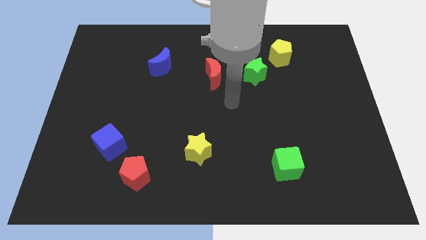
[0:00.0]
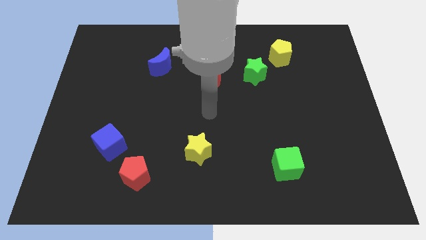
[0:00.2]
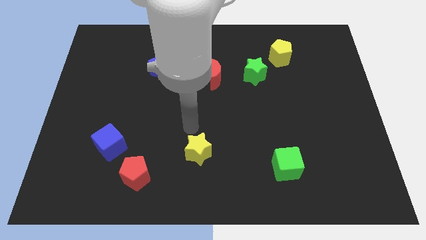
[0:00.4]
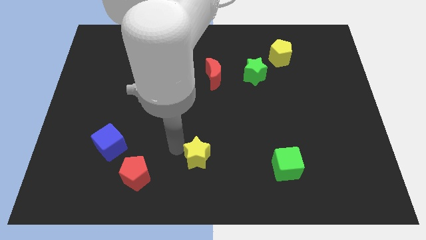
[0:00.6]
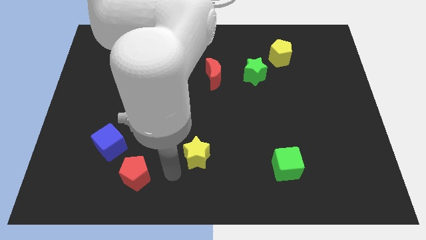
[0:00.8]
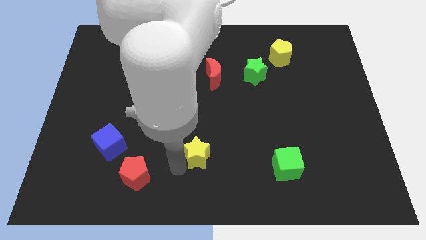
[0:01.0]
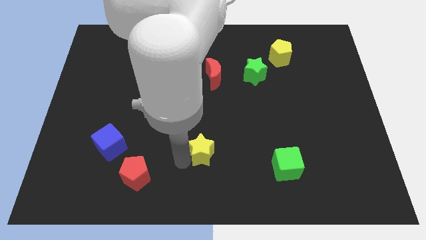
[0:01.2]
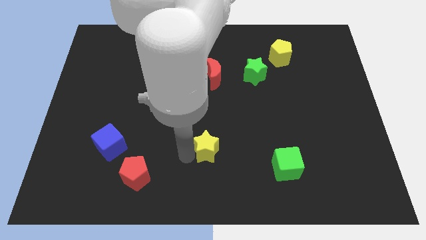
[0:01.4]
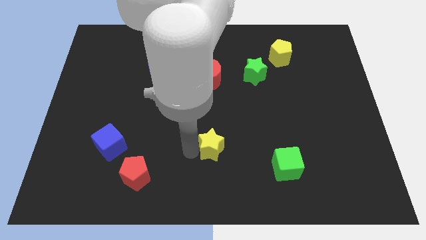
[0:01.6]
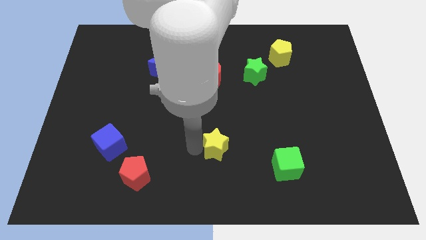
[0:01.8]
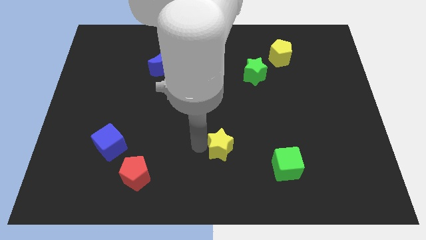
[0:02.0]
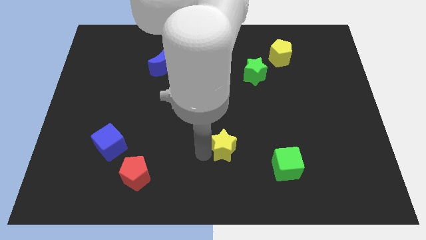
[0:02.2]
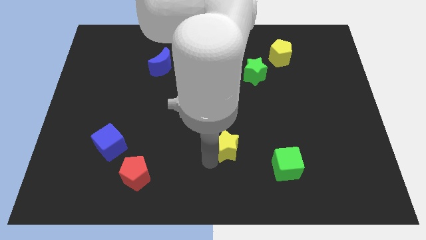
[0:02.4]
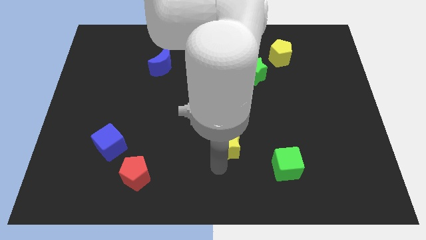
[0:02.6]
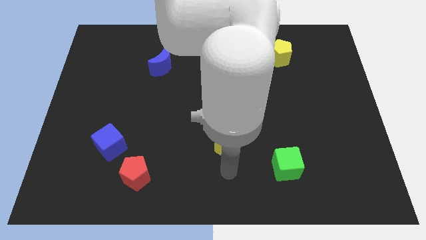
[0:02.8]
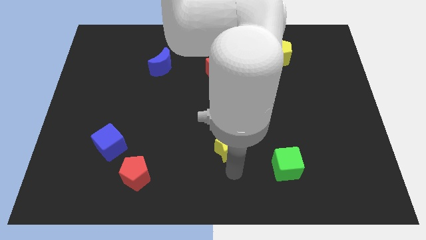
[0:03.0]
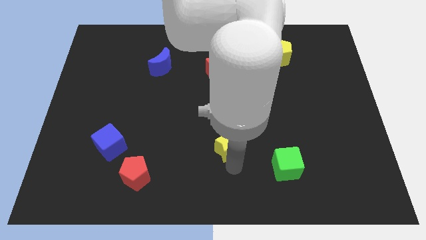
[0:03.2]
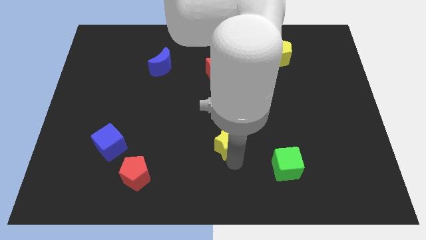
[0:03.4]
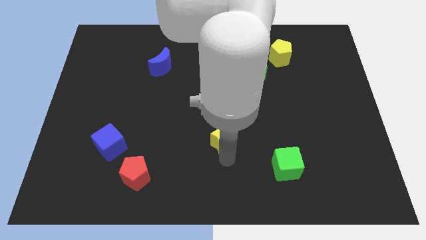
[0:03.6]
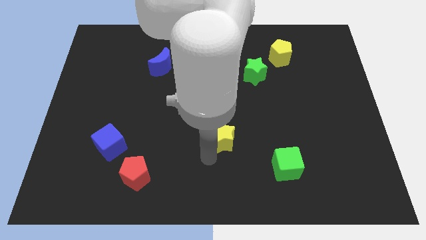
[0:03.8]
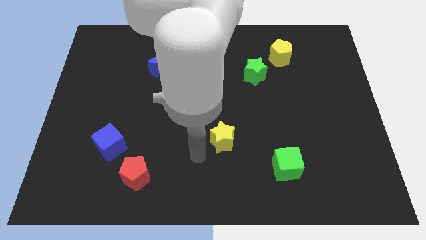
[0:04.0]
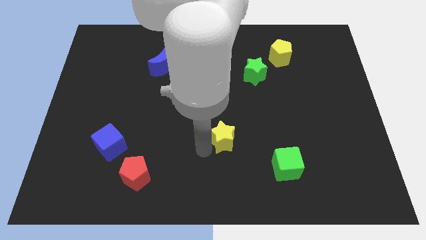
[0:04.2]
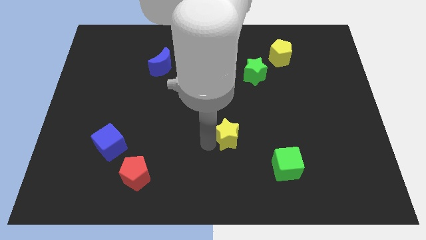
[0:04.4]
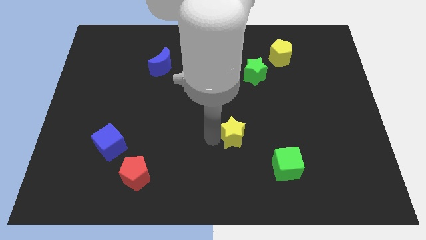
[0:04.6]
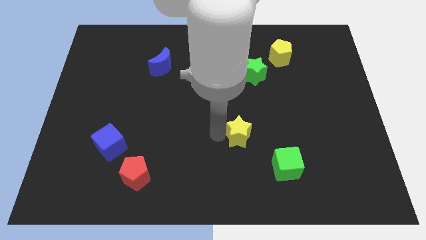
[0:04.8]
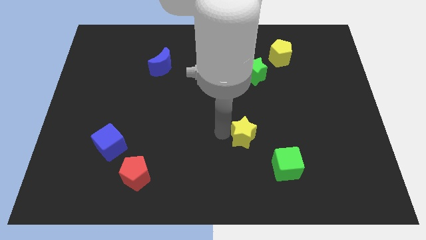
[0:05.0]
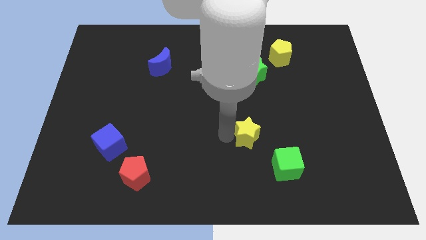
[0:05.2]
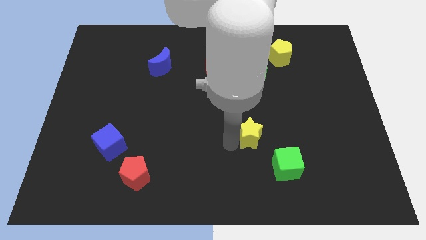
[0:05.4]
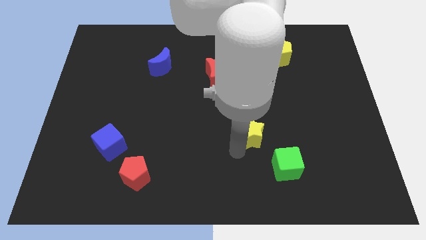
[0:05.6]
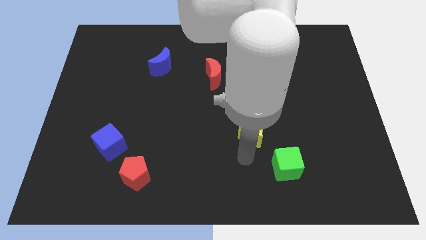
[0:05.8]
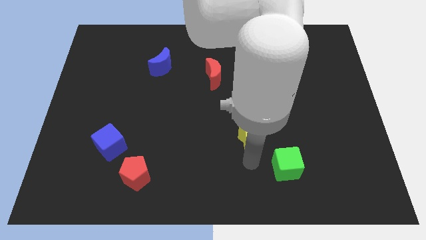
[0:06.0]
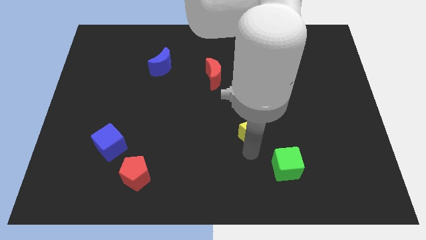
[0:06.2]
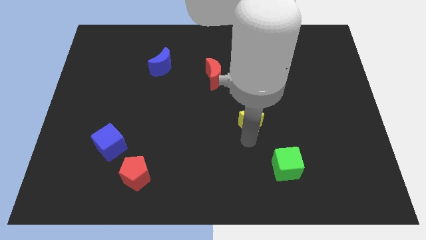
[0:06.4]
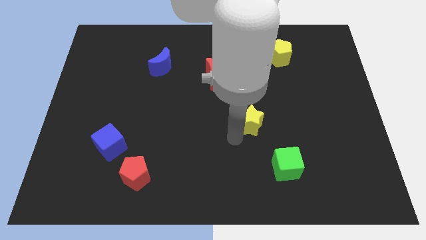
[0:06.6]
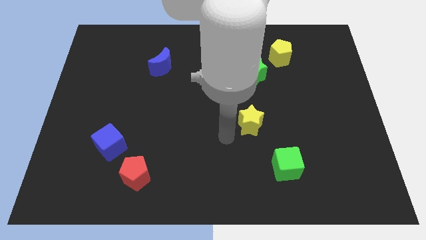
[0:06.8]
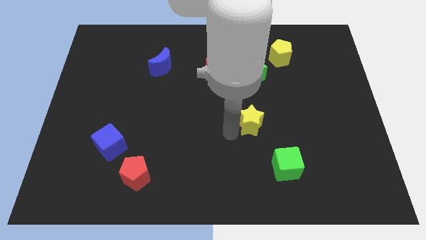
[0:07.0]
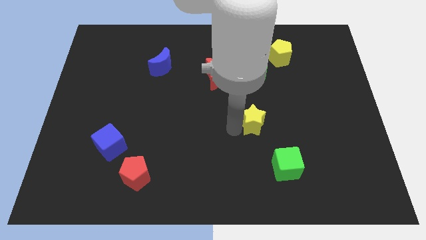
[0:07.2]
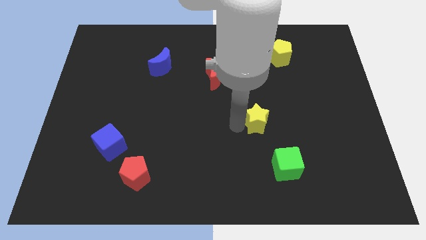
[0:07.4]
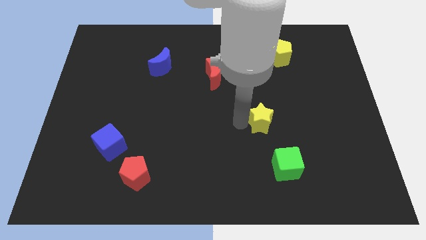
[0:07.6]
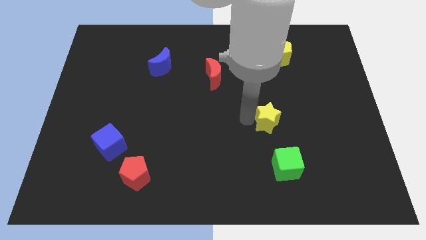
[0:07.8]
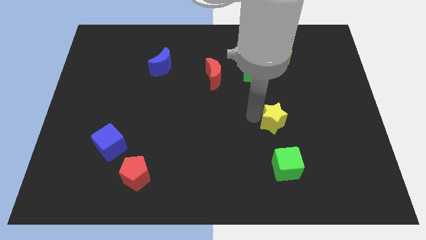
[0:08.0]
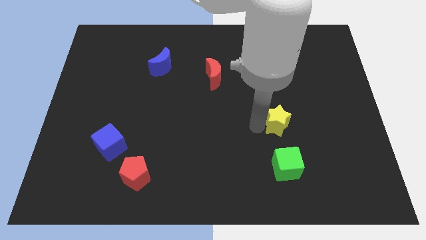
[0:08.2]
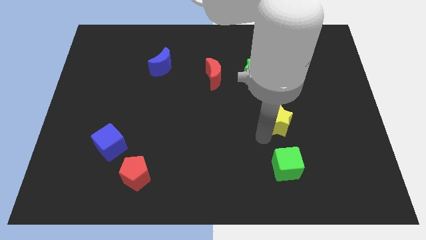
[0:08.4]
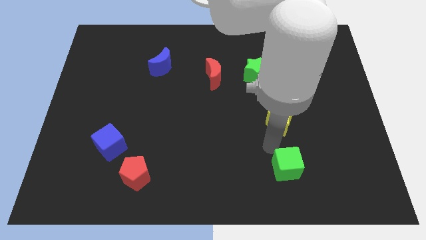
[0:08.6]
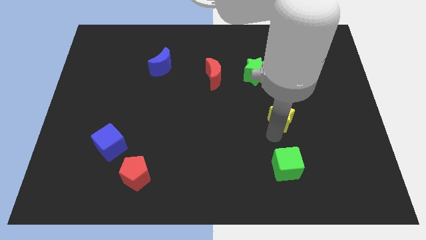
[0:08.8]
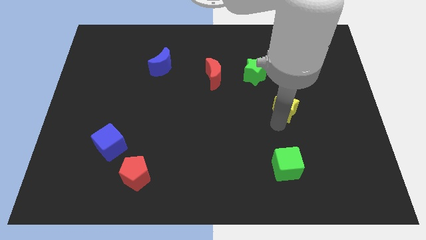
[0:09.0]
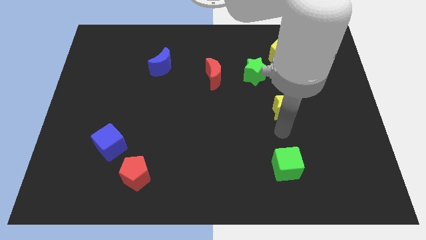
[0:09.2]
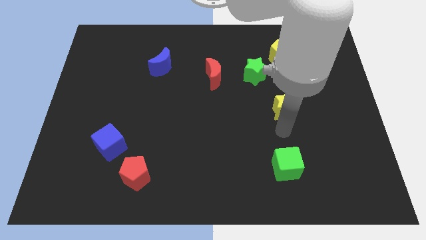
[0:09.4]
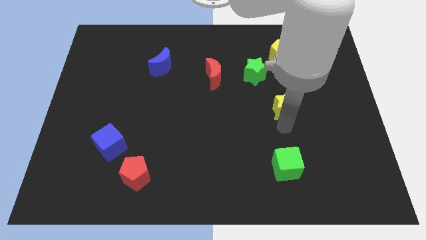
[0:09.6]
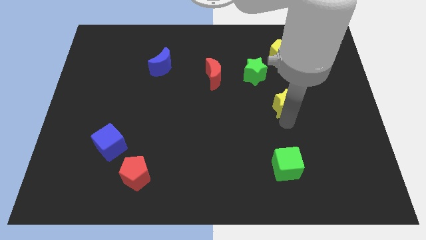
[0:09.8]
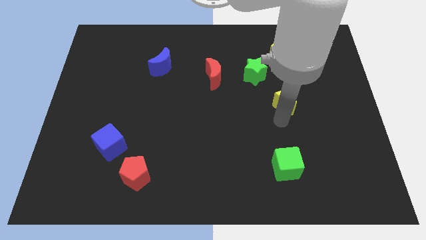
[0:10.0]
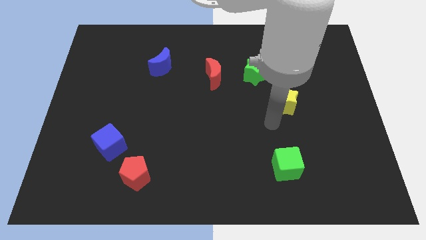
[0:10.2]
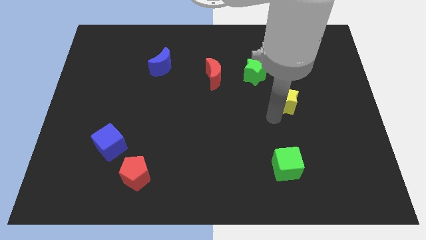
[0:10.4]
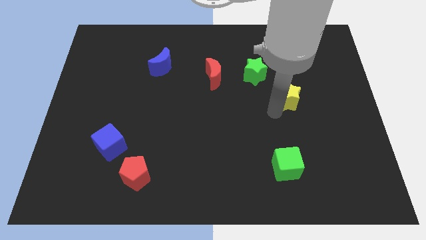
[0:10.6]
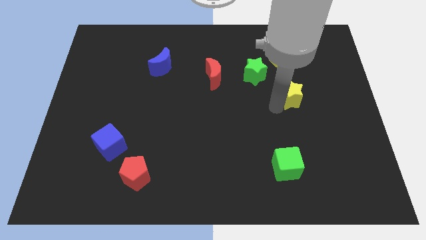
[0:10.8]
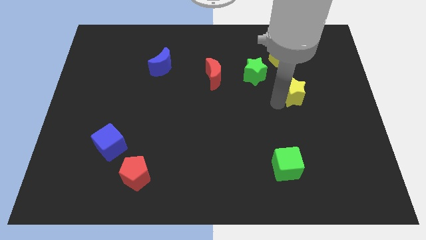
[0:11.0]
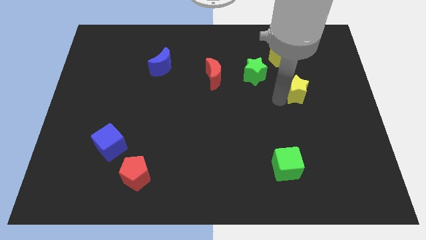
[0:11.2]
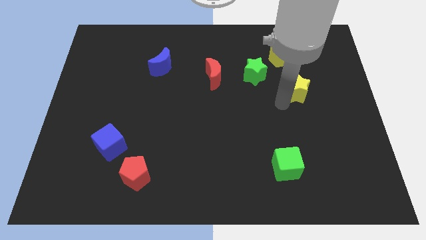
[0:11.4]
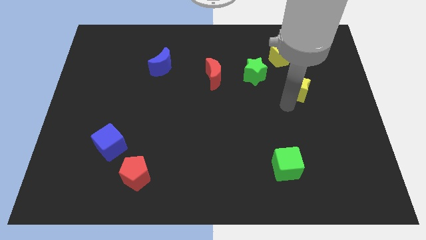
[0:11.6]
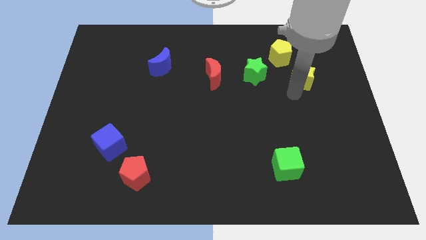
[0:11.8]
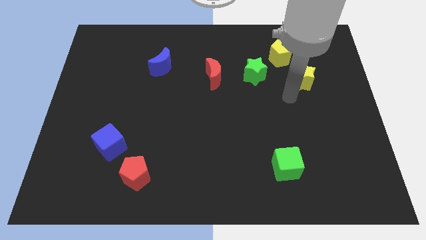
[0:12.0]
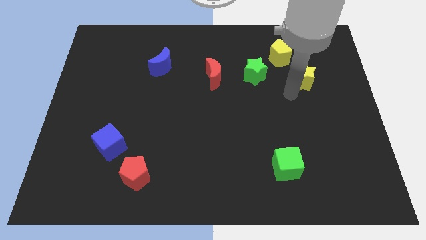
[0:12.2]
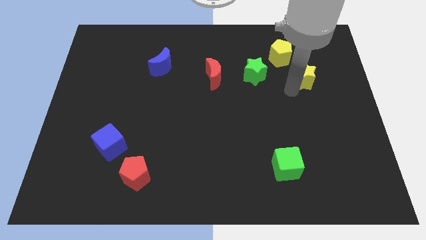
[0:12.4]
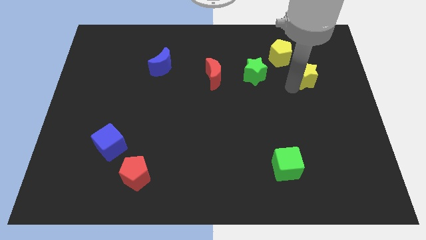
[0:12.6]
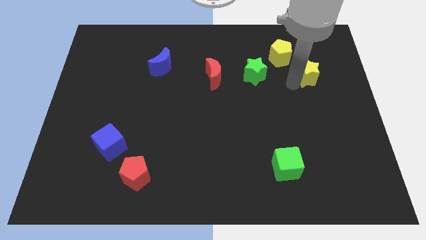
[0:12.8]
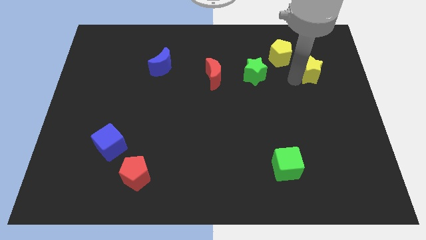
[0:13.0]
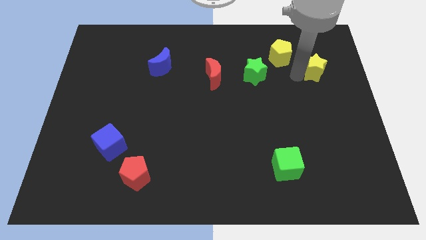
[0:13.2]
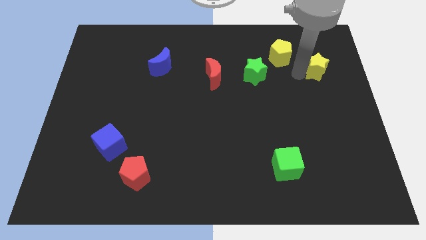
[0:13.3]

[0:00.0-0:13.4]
put the yellow star to the right side of the yellow pentagon

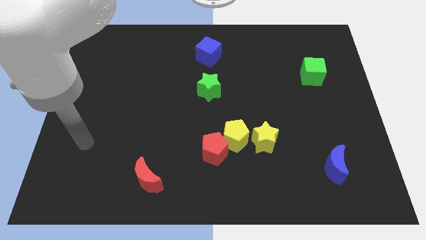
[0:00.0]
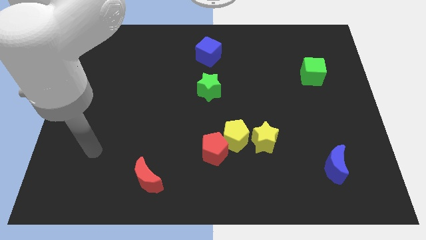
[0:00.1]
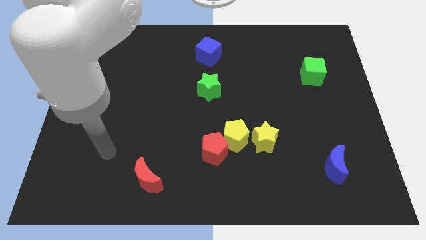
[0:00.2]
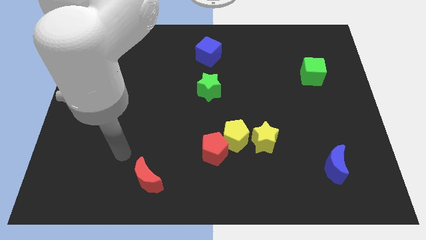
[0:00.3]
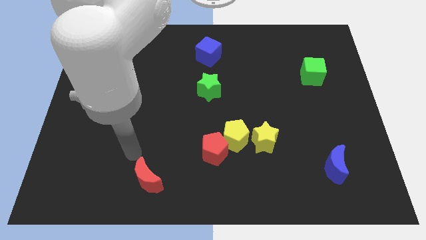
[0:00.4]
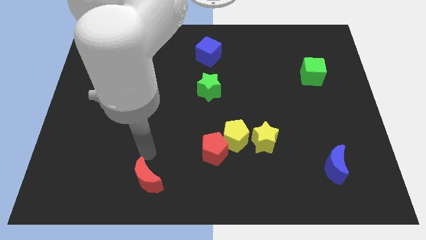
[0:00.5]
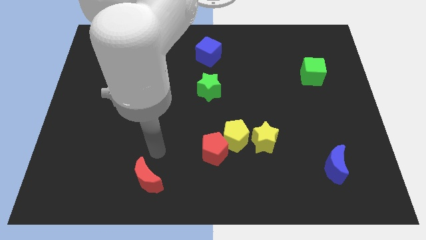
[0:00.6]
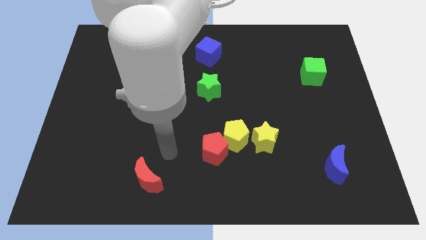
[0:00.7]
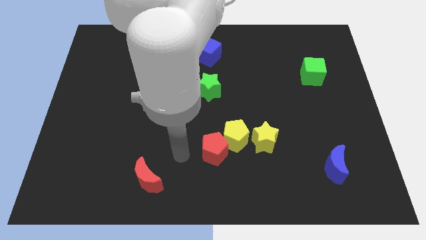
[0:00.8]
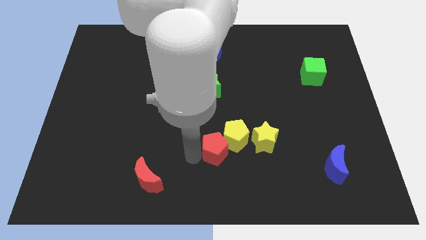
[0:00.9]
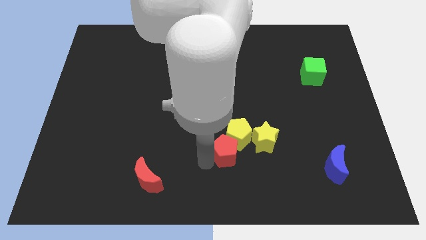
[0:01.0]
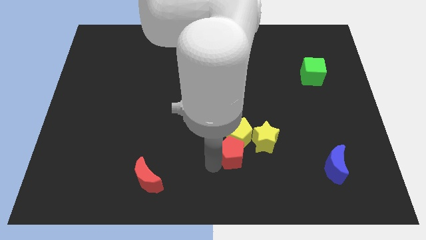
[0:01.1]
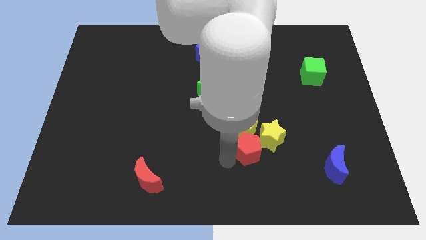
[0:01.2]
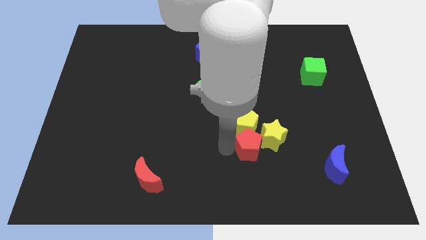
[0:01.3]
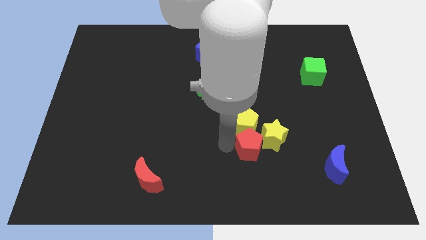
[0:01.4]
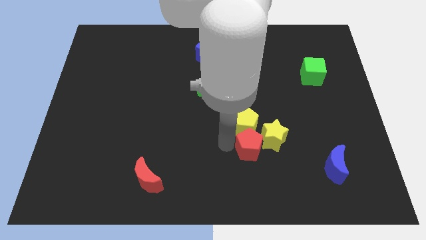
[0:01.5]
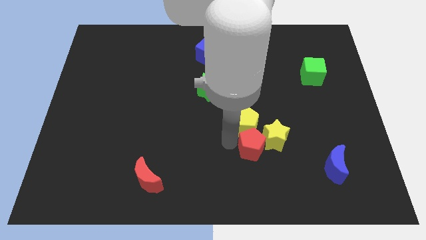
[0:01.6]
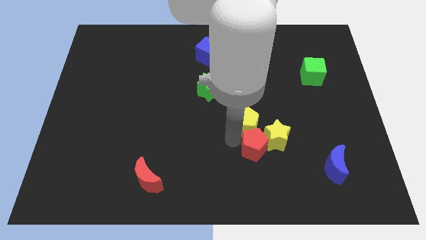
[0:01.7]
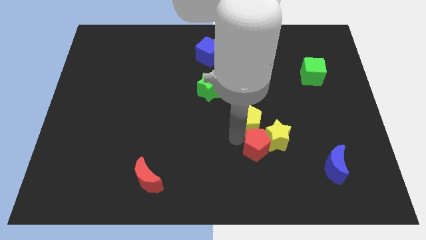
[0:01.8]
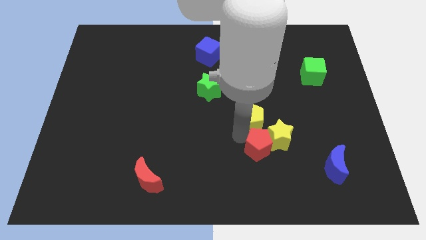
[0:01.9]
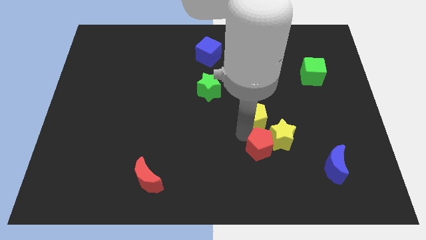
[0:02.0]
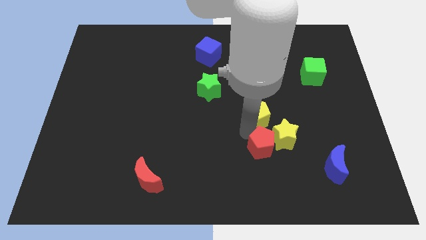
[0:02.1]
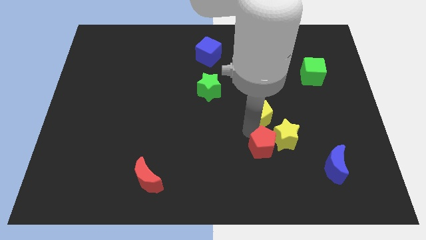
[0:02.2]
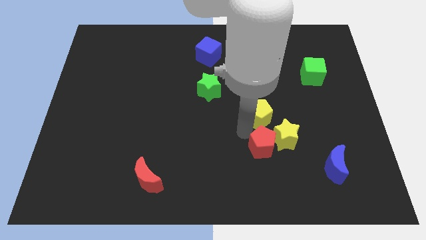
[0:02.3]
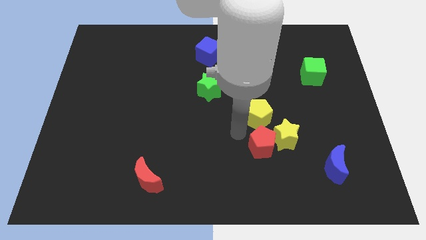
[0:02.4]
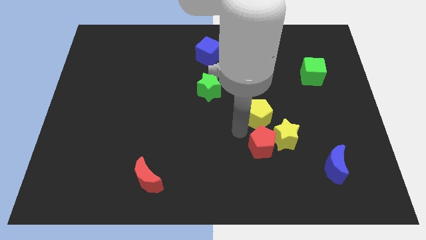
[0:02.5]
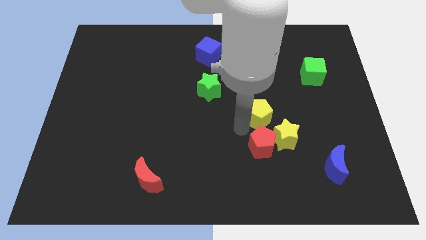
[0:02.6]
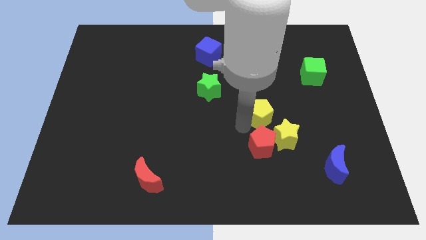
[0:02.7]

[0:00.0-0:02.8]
move the yellow pentagon to the top side of the yellow star
